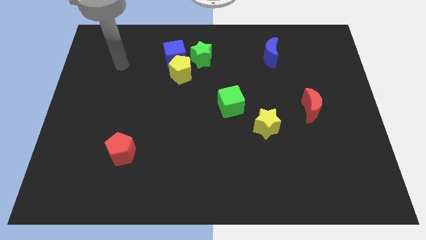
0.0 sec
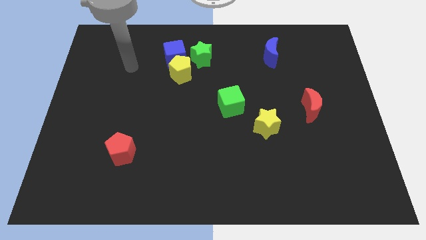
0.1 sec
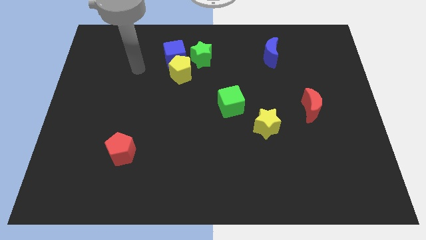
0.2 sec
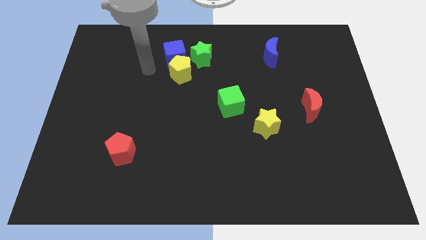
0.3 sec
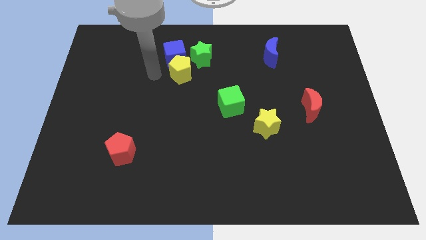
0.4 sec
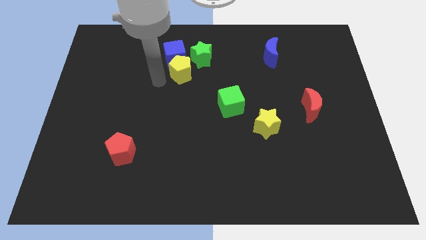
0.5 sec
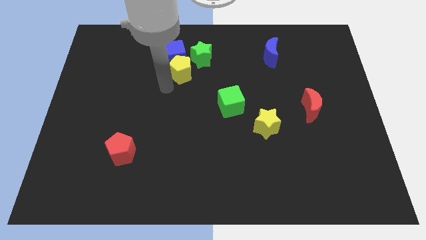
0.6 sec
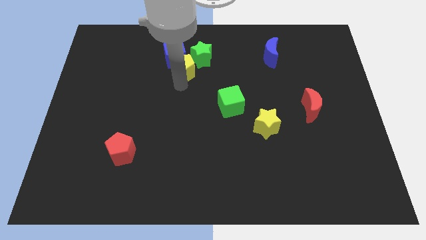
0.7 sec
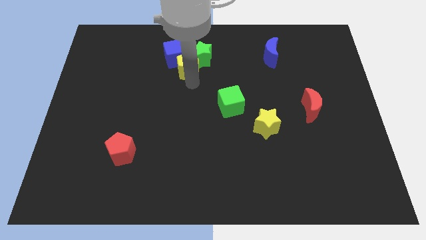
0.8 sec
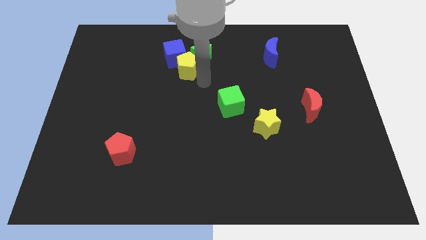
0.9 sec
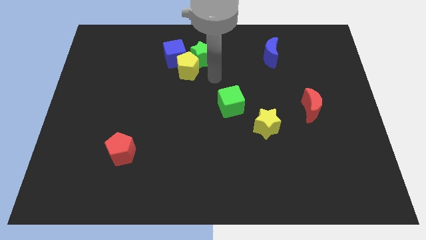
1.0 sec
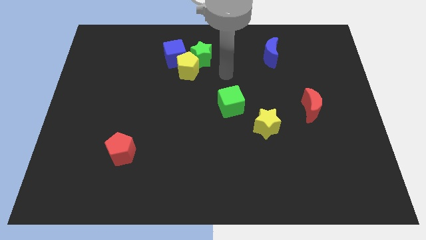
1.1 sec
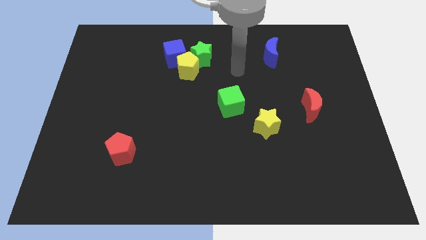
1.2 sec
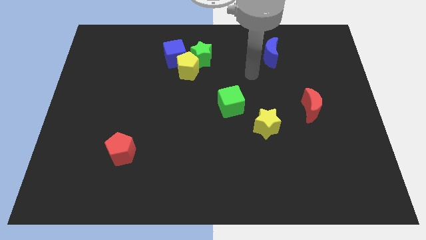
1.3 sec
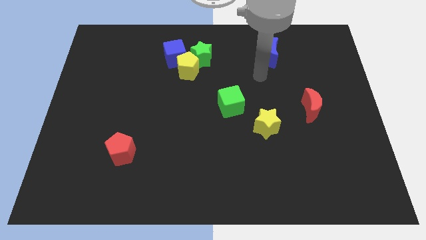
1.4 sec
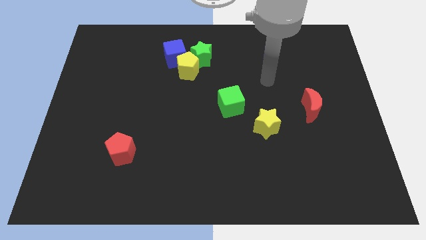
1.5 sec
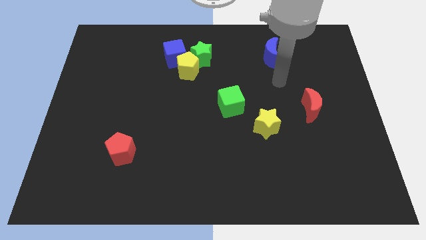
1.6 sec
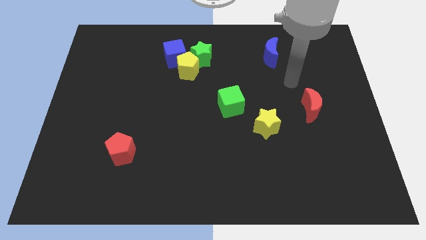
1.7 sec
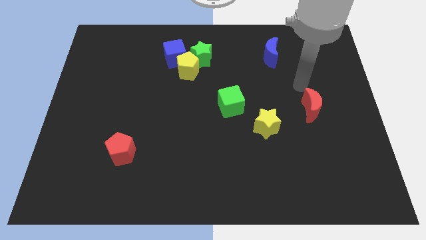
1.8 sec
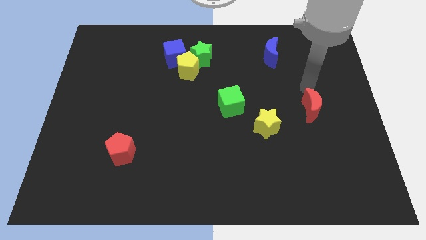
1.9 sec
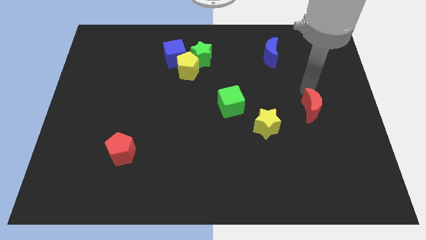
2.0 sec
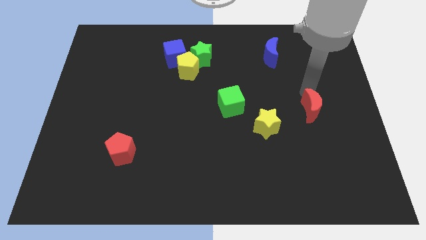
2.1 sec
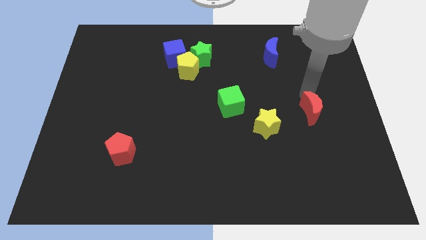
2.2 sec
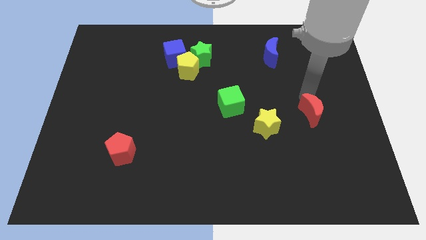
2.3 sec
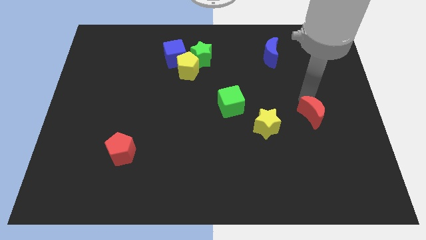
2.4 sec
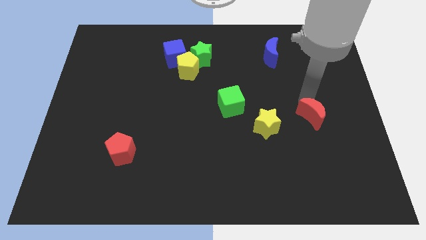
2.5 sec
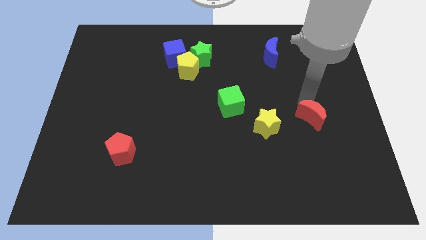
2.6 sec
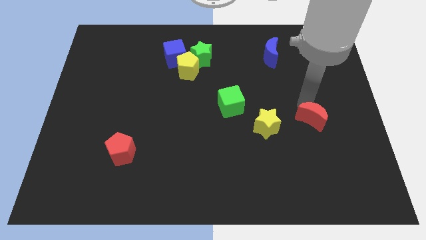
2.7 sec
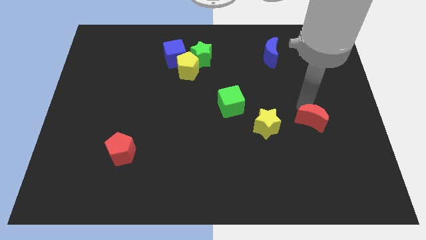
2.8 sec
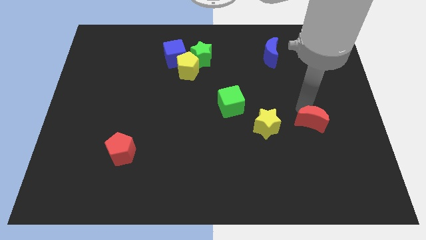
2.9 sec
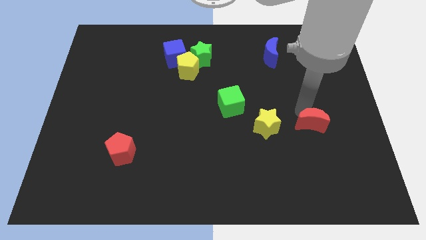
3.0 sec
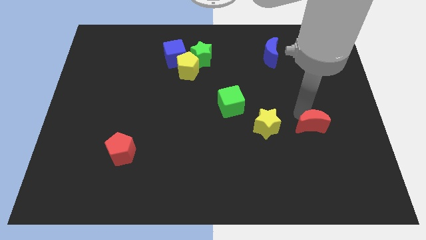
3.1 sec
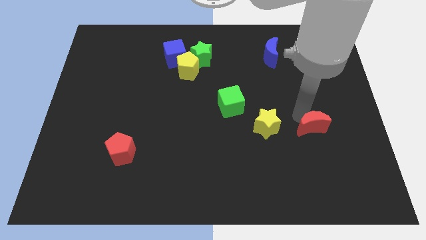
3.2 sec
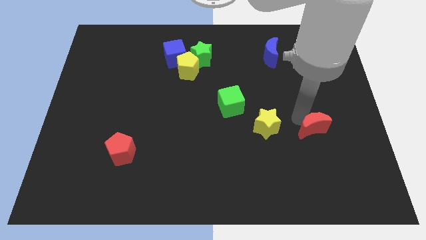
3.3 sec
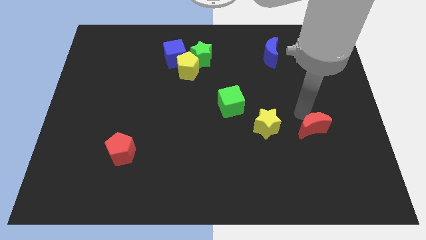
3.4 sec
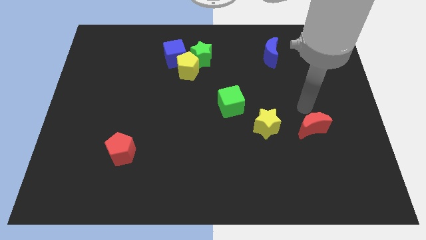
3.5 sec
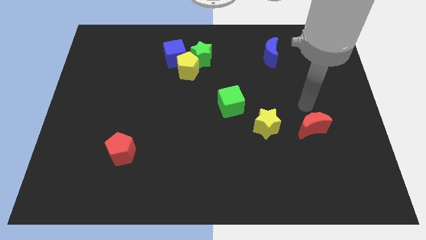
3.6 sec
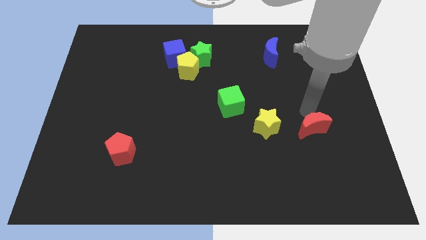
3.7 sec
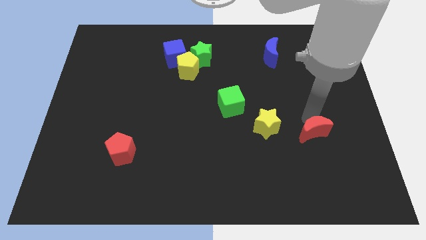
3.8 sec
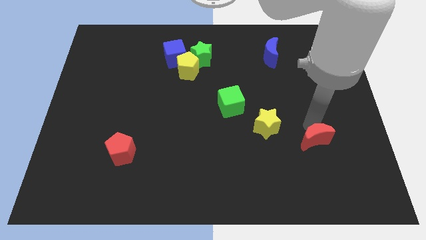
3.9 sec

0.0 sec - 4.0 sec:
slightly slide the red moon downwards

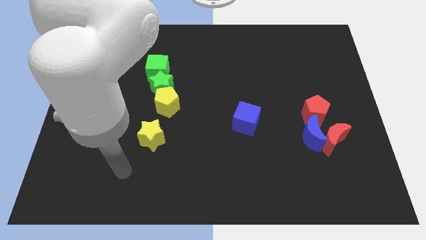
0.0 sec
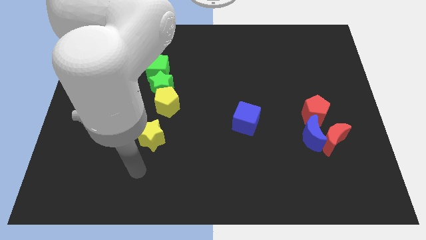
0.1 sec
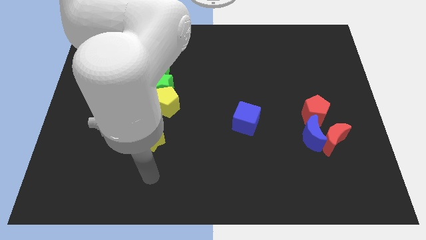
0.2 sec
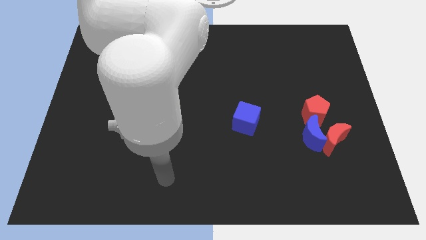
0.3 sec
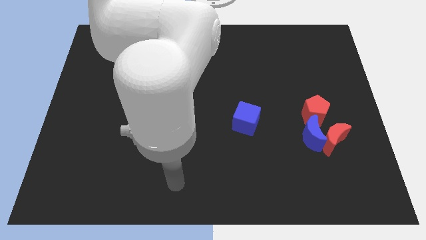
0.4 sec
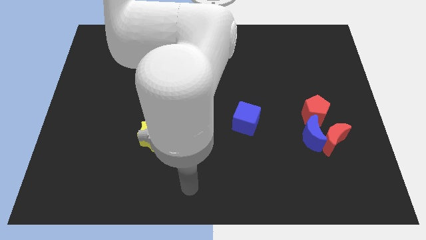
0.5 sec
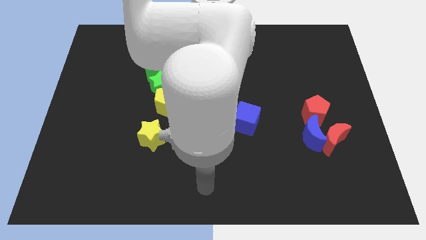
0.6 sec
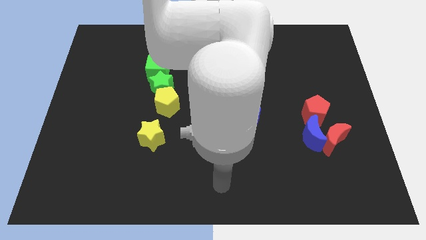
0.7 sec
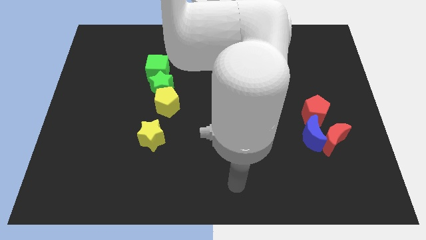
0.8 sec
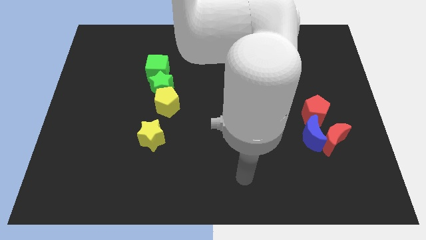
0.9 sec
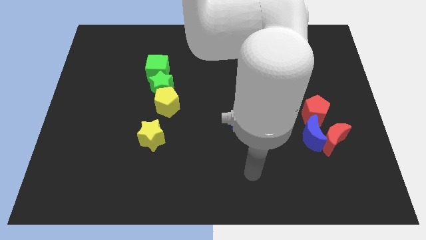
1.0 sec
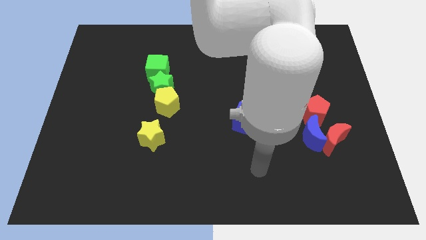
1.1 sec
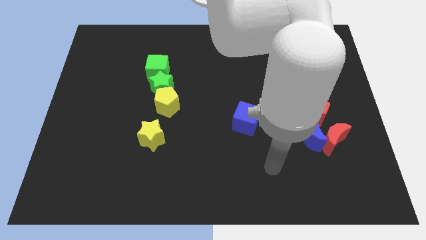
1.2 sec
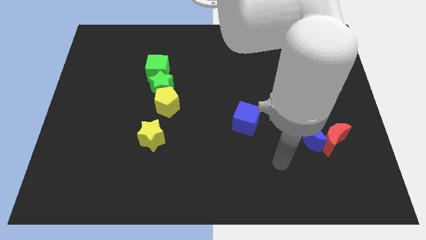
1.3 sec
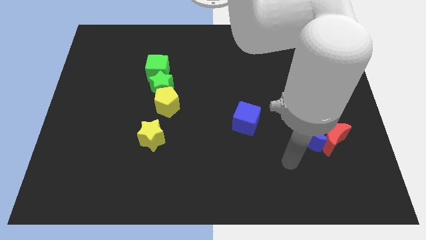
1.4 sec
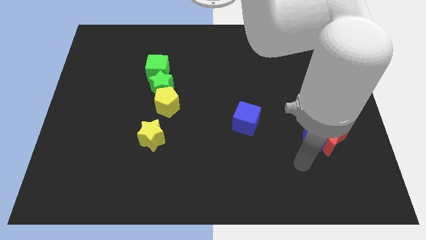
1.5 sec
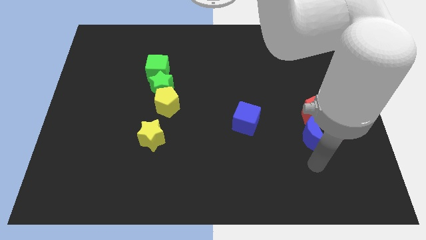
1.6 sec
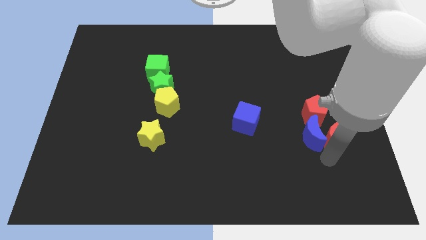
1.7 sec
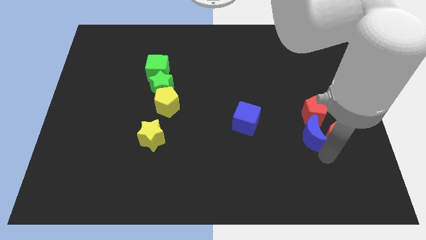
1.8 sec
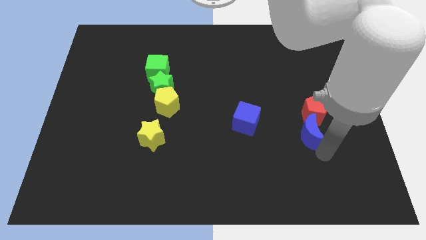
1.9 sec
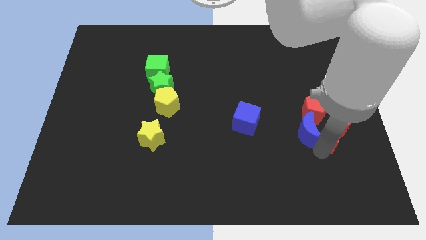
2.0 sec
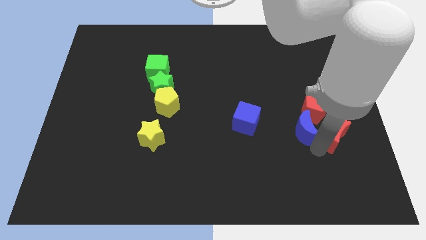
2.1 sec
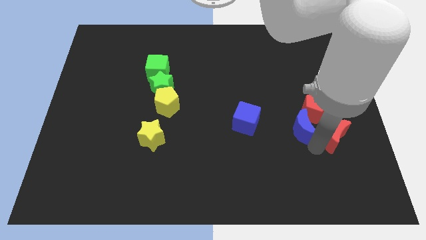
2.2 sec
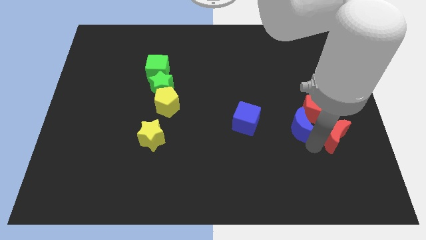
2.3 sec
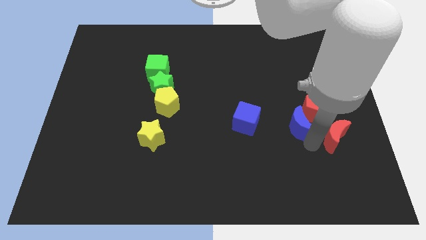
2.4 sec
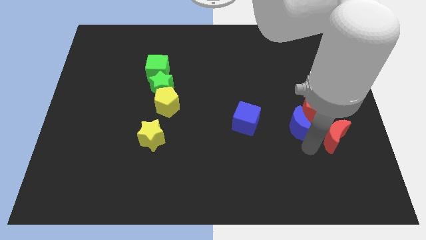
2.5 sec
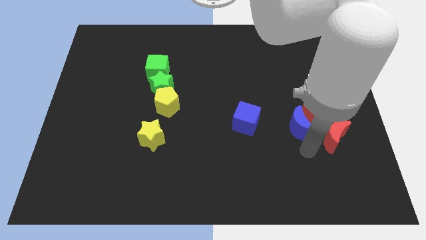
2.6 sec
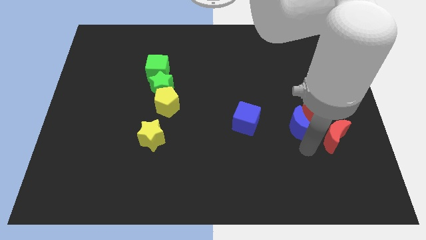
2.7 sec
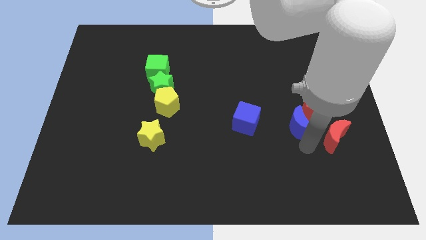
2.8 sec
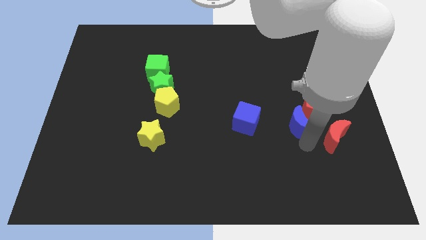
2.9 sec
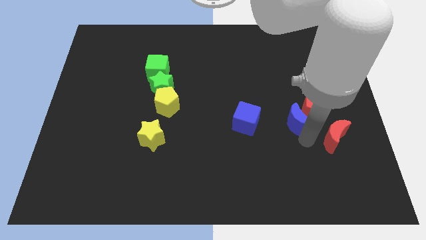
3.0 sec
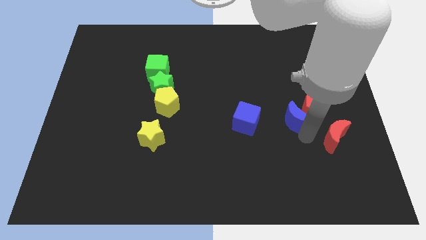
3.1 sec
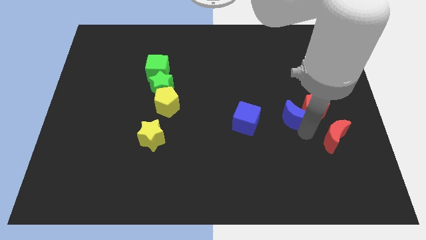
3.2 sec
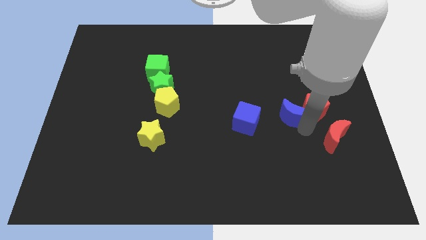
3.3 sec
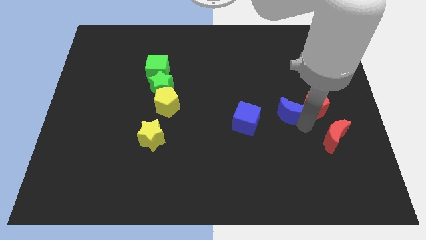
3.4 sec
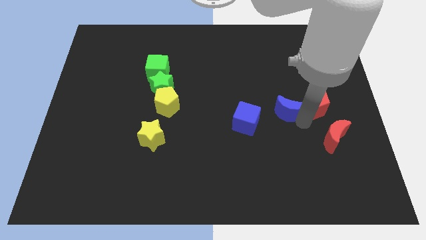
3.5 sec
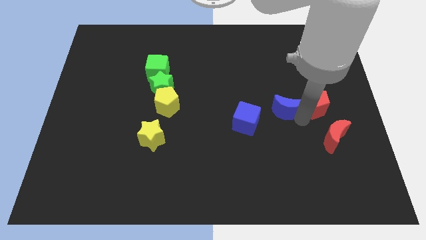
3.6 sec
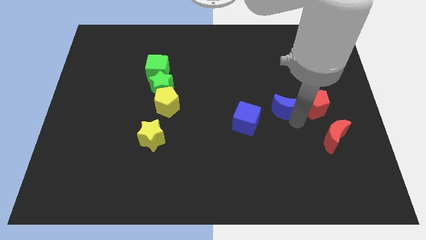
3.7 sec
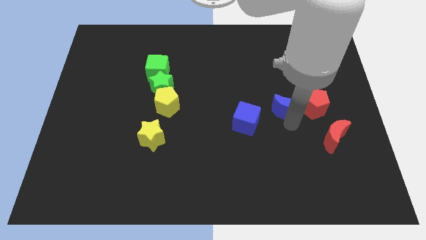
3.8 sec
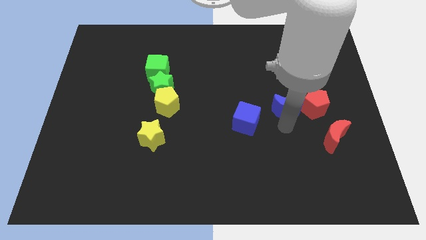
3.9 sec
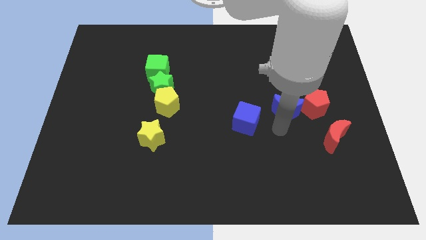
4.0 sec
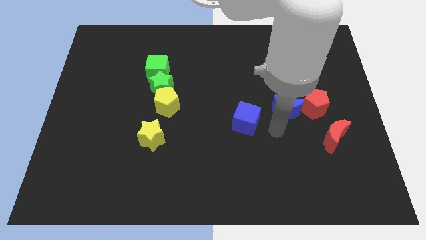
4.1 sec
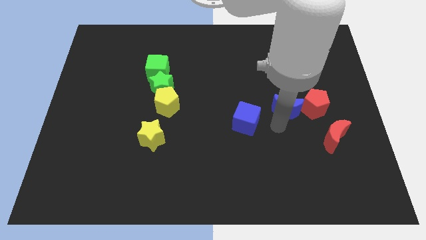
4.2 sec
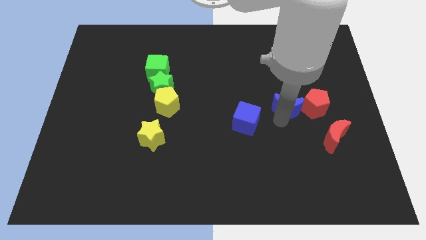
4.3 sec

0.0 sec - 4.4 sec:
slightly slide the blue moon upwards

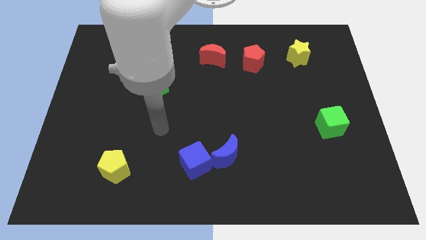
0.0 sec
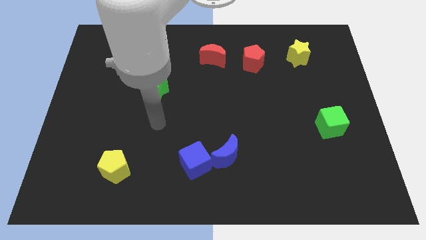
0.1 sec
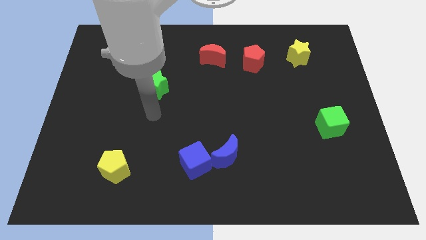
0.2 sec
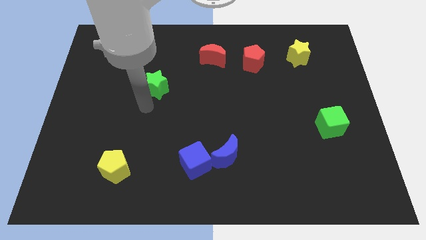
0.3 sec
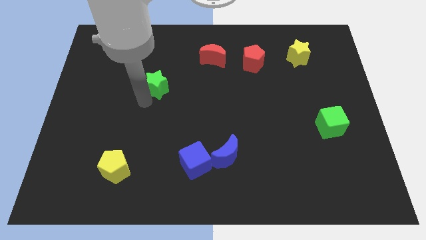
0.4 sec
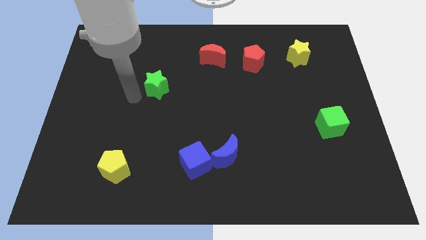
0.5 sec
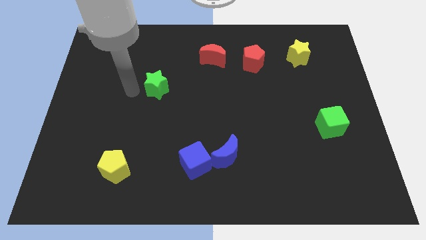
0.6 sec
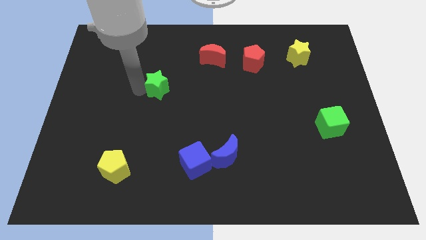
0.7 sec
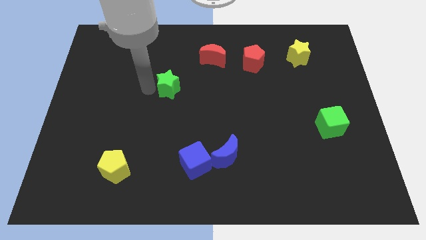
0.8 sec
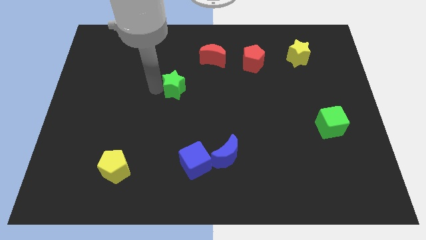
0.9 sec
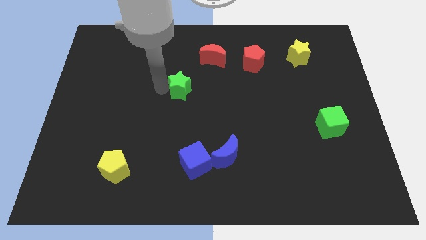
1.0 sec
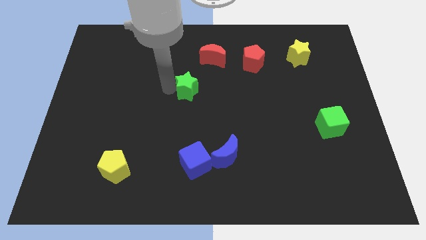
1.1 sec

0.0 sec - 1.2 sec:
slide the green star somewhat to the right
